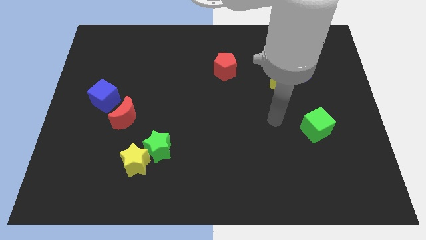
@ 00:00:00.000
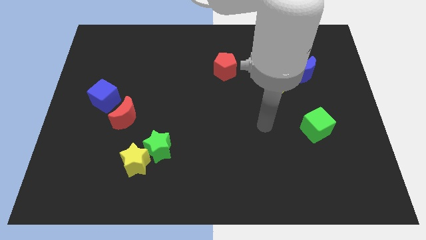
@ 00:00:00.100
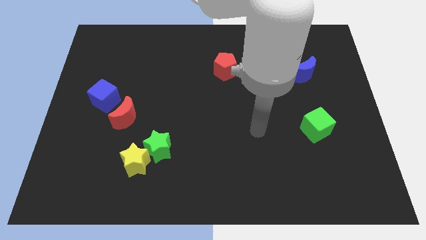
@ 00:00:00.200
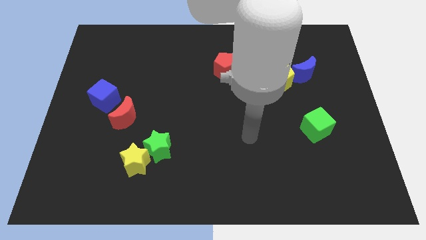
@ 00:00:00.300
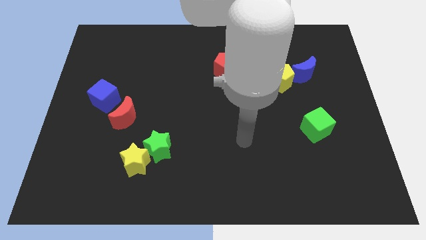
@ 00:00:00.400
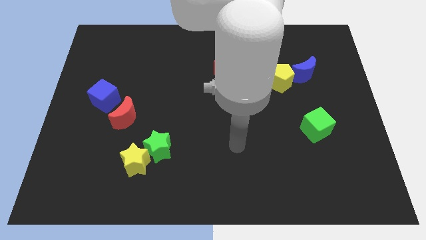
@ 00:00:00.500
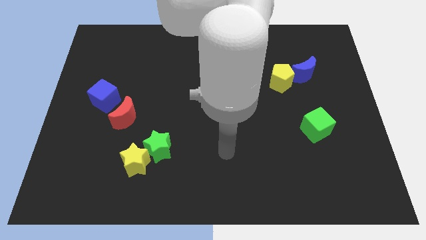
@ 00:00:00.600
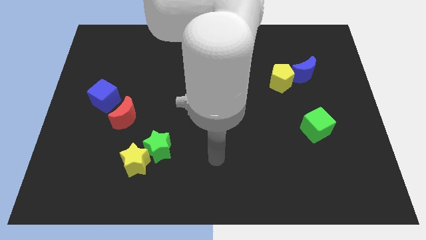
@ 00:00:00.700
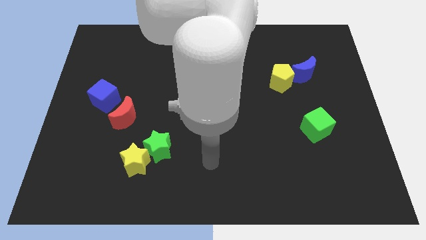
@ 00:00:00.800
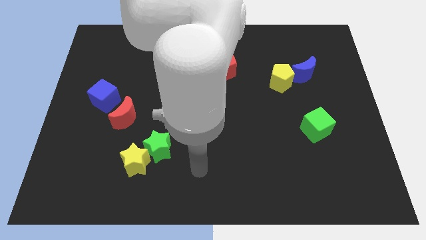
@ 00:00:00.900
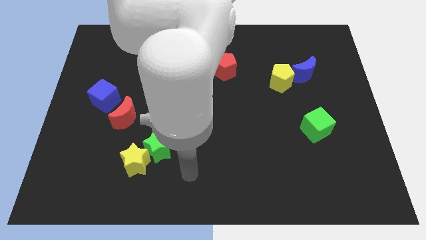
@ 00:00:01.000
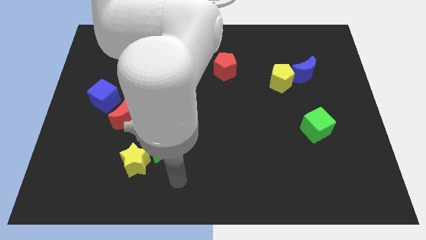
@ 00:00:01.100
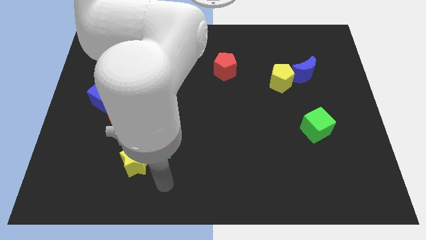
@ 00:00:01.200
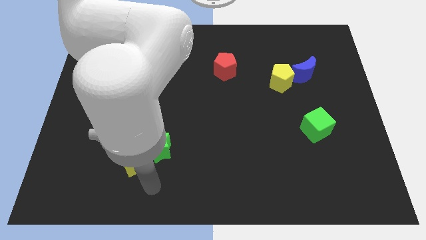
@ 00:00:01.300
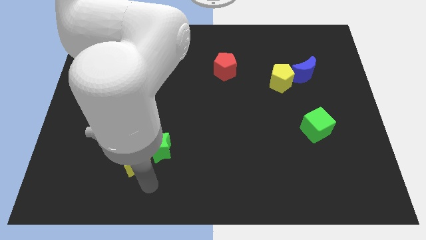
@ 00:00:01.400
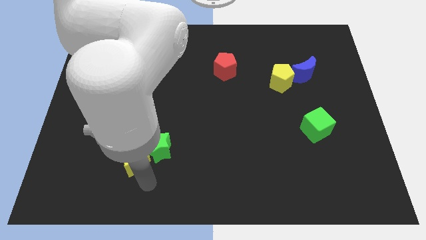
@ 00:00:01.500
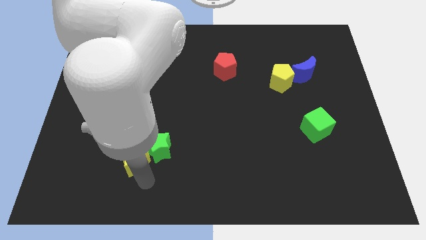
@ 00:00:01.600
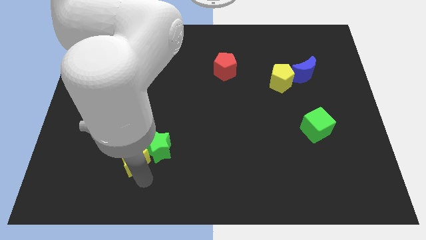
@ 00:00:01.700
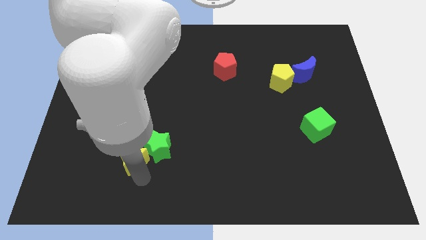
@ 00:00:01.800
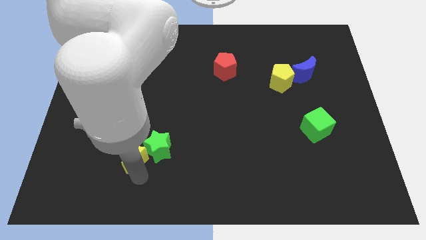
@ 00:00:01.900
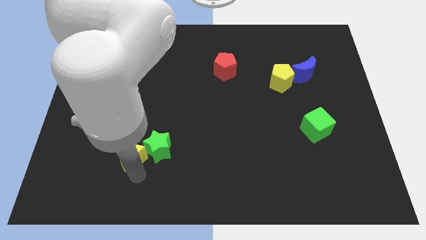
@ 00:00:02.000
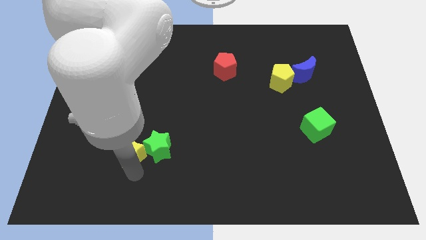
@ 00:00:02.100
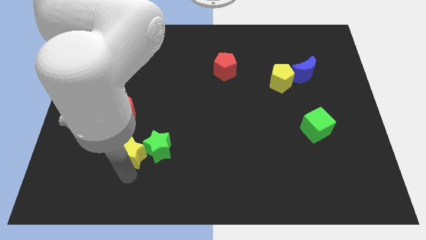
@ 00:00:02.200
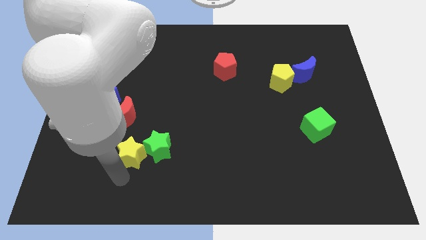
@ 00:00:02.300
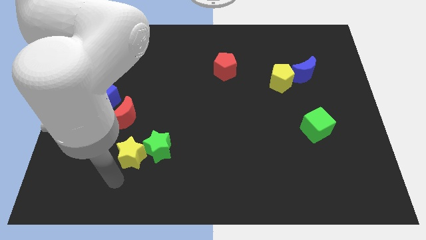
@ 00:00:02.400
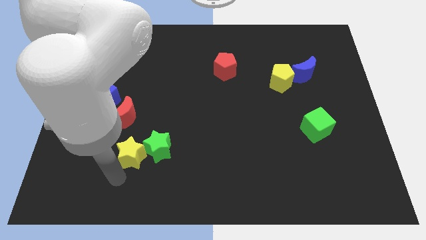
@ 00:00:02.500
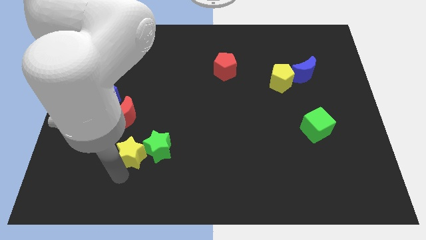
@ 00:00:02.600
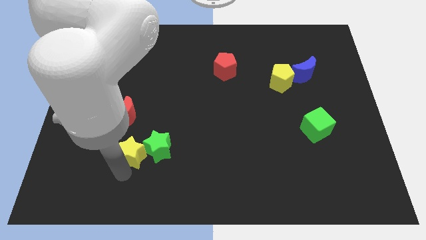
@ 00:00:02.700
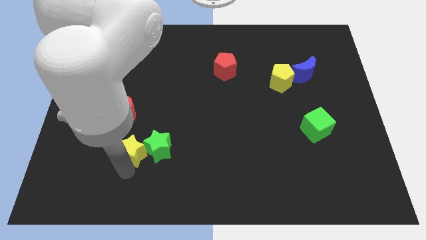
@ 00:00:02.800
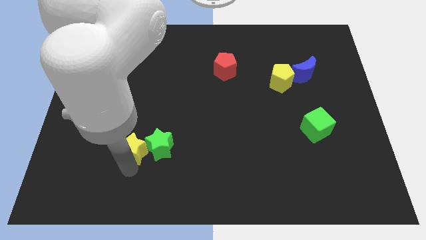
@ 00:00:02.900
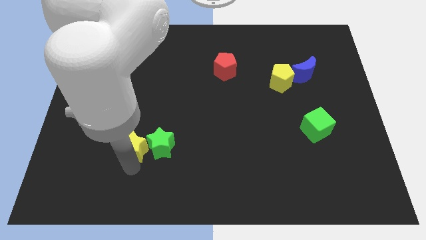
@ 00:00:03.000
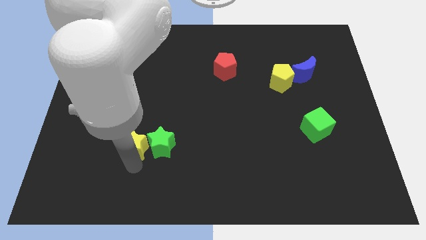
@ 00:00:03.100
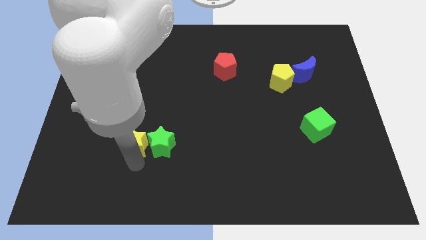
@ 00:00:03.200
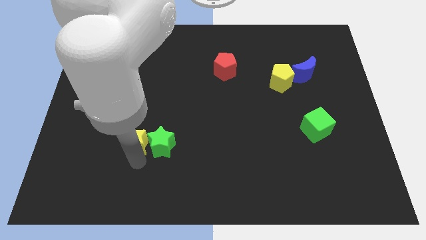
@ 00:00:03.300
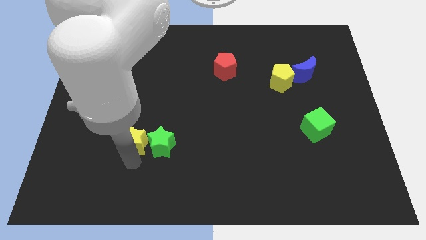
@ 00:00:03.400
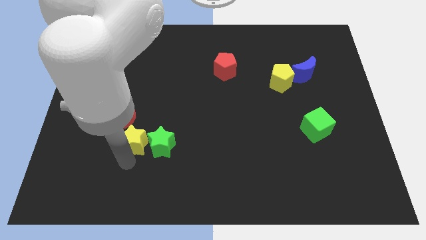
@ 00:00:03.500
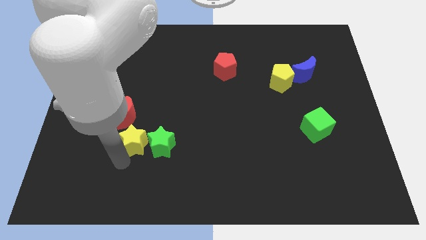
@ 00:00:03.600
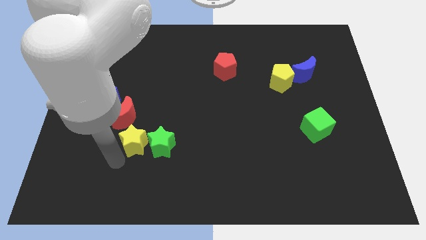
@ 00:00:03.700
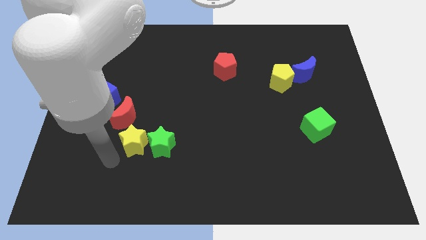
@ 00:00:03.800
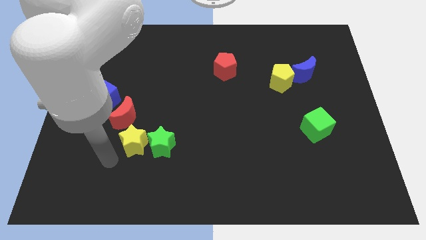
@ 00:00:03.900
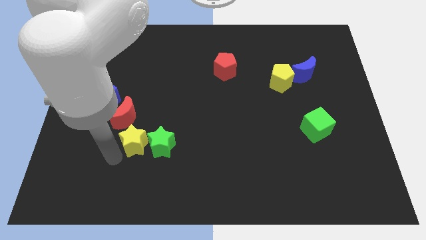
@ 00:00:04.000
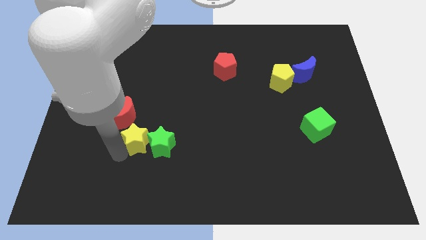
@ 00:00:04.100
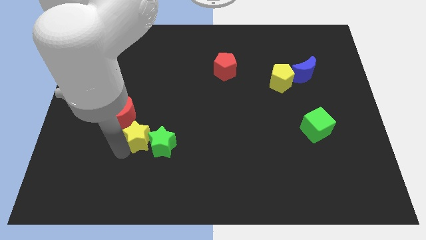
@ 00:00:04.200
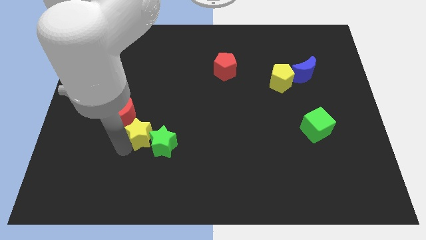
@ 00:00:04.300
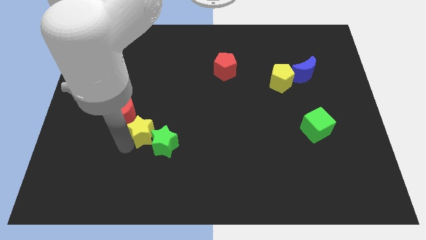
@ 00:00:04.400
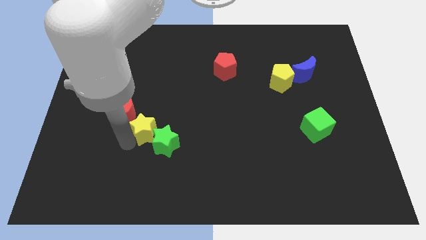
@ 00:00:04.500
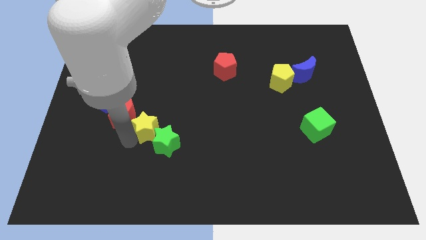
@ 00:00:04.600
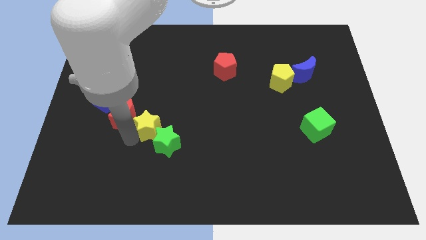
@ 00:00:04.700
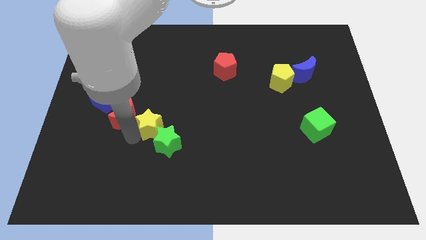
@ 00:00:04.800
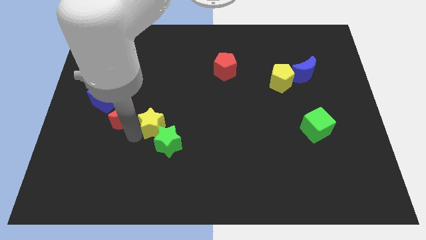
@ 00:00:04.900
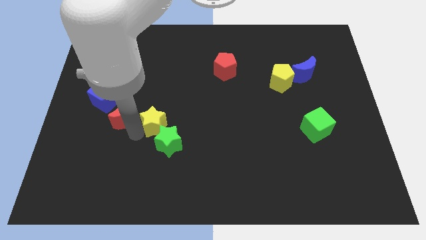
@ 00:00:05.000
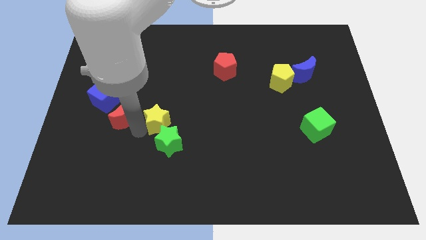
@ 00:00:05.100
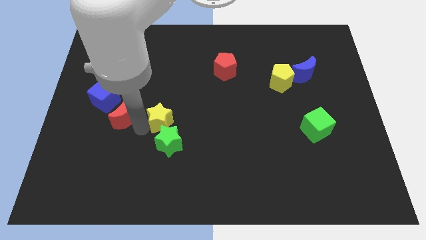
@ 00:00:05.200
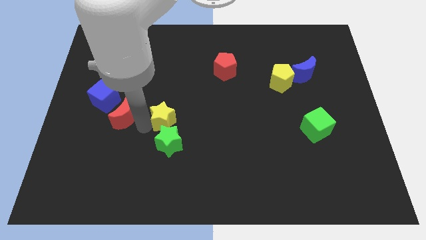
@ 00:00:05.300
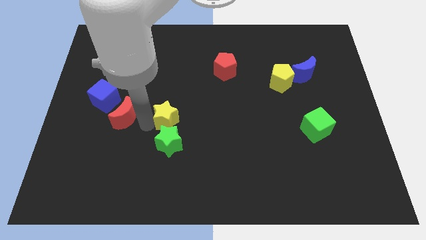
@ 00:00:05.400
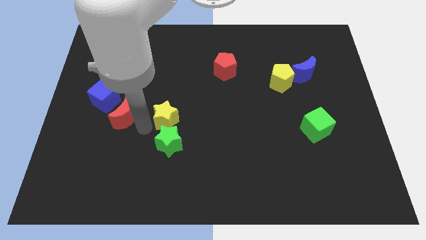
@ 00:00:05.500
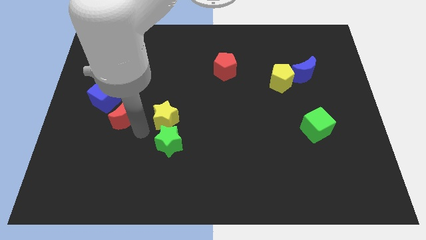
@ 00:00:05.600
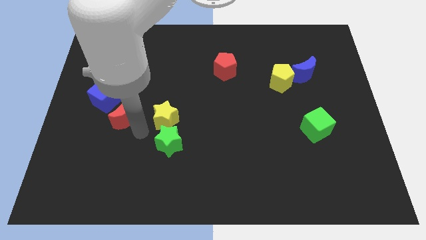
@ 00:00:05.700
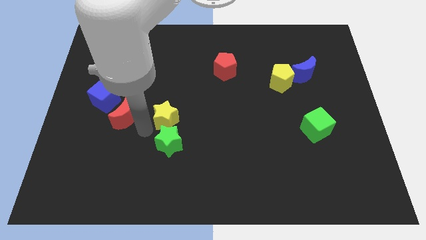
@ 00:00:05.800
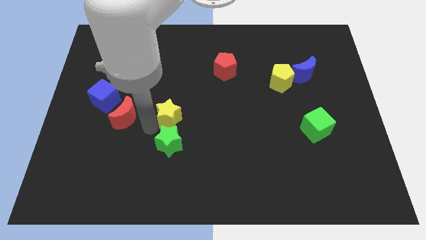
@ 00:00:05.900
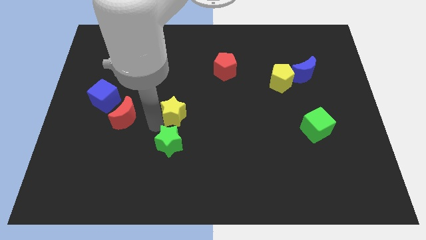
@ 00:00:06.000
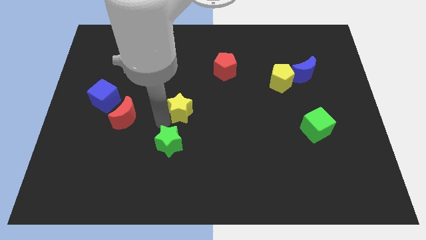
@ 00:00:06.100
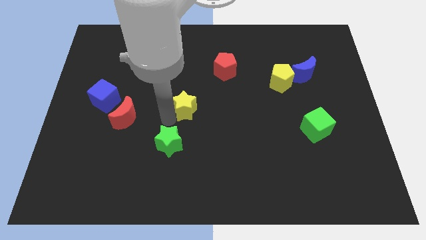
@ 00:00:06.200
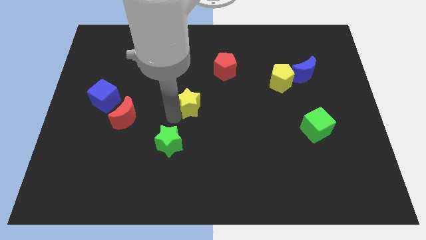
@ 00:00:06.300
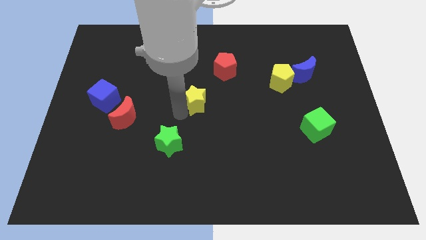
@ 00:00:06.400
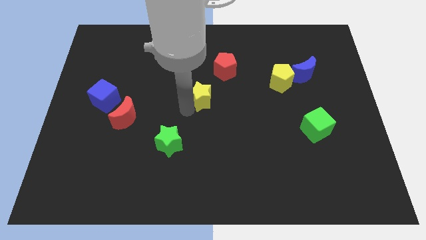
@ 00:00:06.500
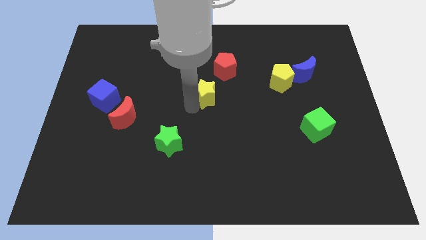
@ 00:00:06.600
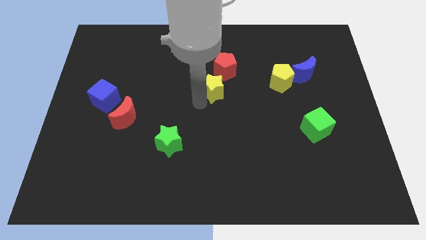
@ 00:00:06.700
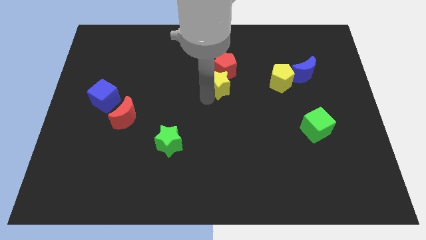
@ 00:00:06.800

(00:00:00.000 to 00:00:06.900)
slide the yellow star next to the red pentagon
